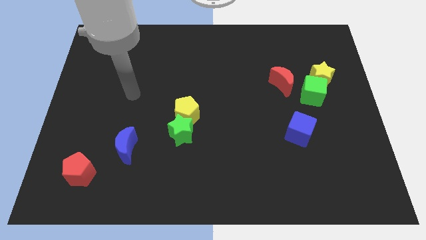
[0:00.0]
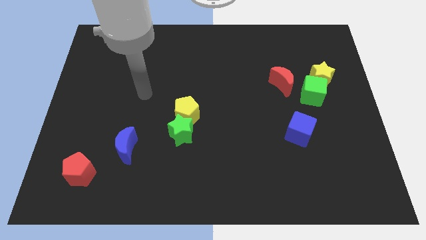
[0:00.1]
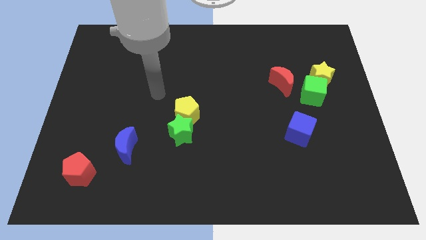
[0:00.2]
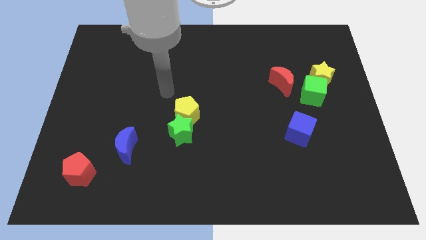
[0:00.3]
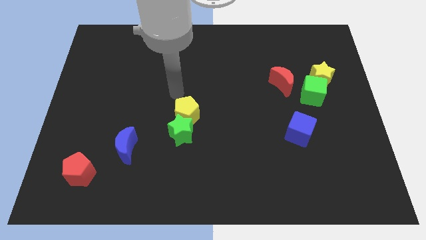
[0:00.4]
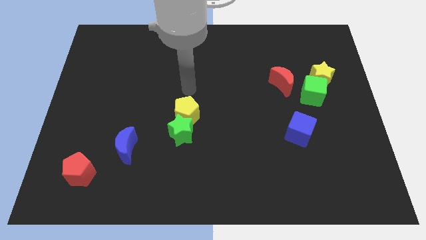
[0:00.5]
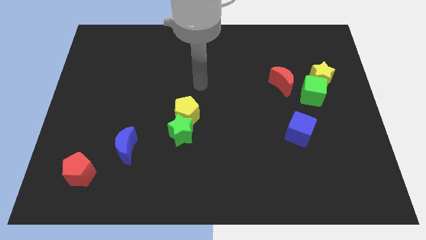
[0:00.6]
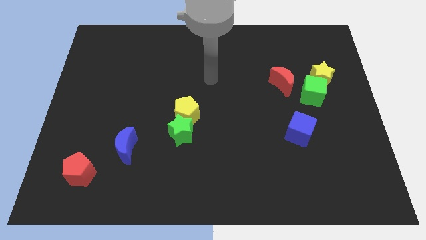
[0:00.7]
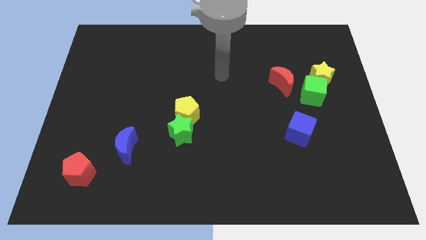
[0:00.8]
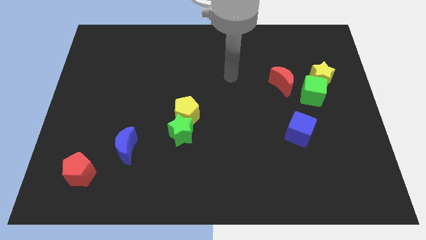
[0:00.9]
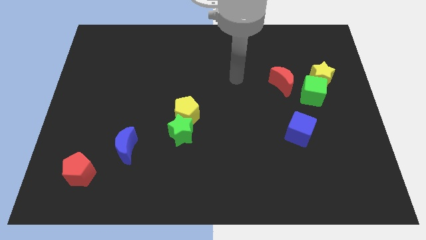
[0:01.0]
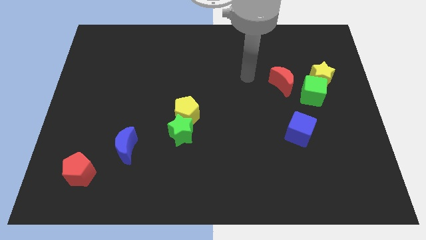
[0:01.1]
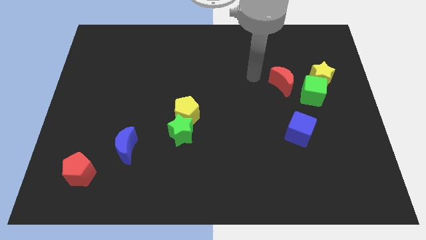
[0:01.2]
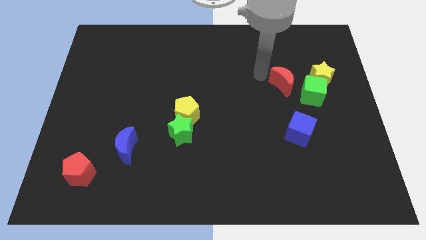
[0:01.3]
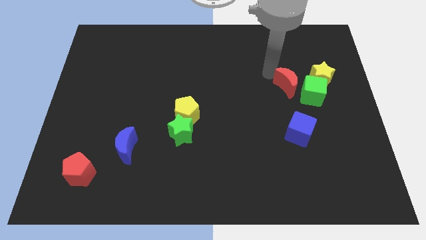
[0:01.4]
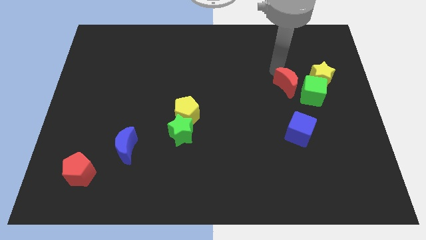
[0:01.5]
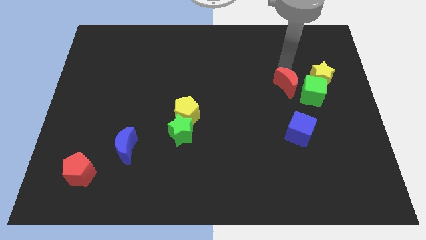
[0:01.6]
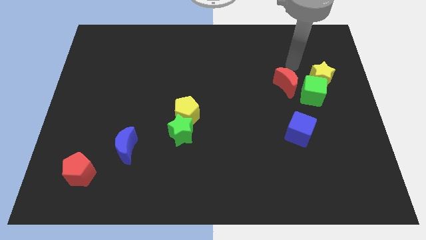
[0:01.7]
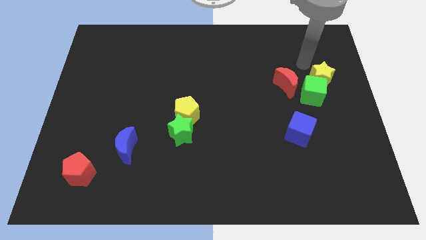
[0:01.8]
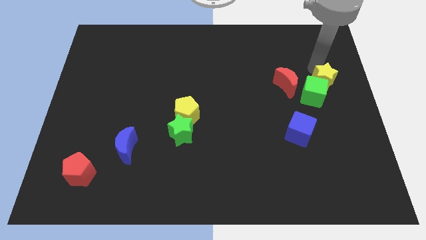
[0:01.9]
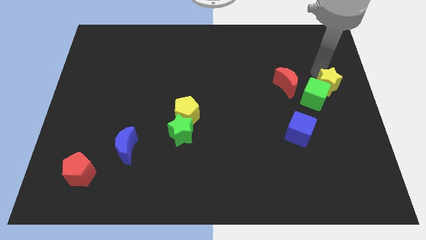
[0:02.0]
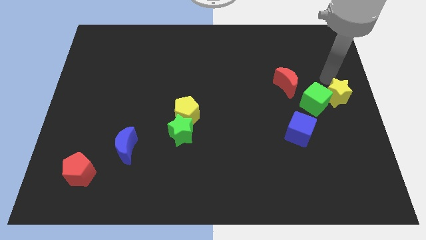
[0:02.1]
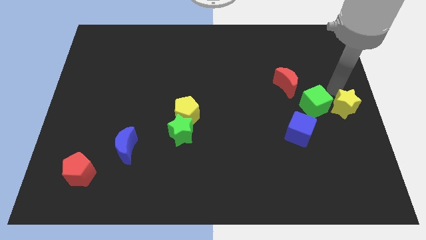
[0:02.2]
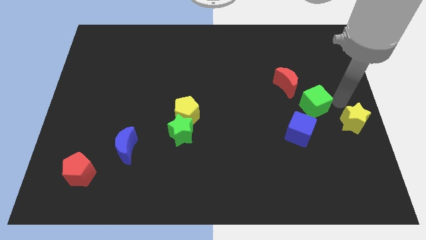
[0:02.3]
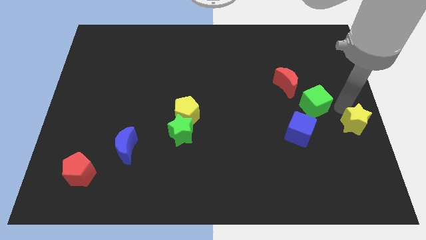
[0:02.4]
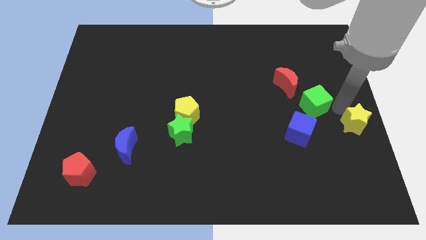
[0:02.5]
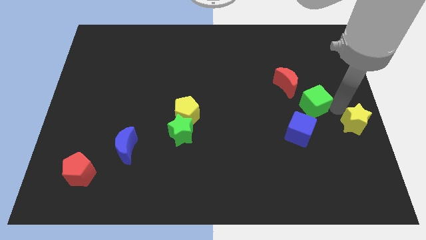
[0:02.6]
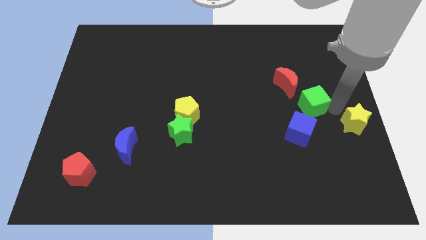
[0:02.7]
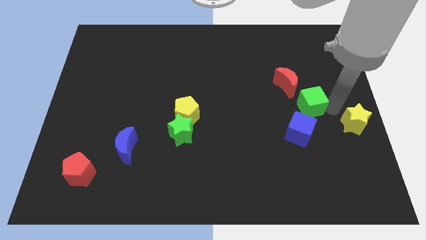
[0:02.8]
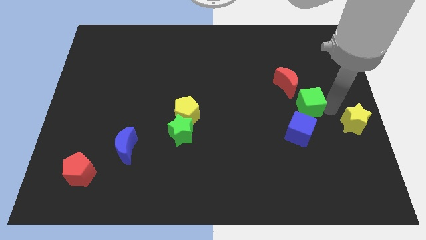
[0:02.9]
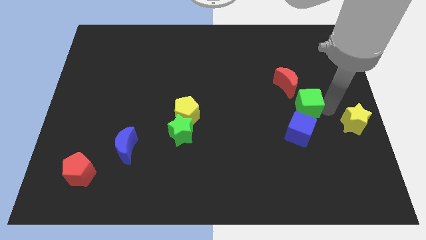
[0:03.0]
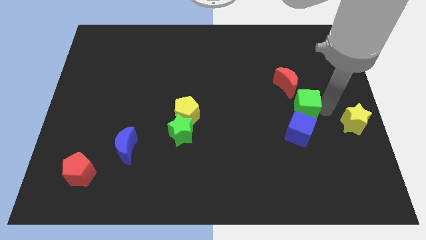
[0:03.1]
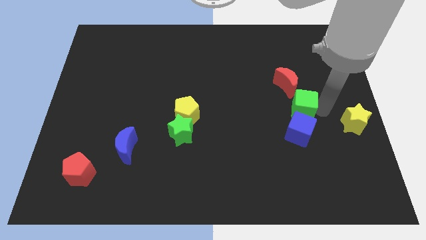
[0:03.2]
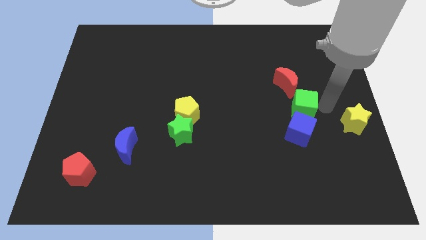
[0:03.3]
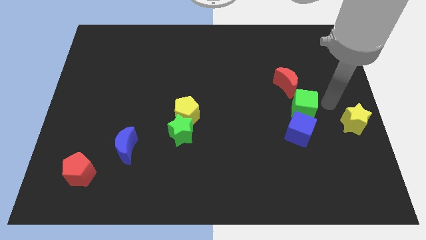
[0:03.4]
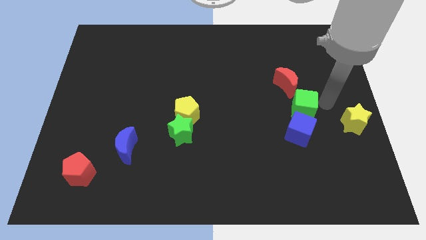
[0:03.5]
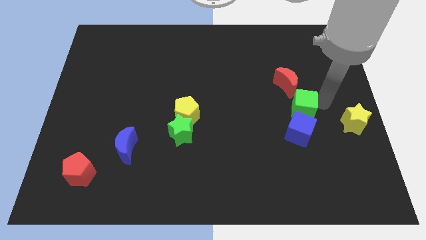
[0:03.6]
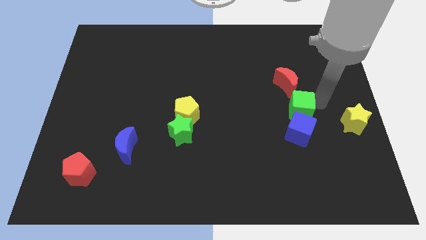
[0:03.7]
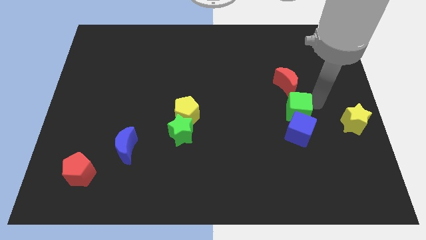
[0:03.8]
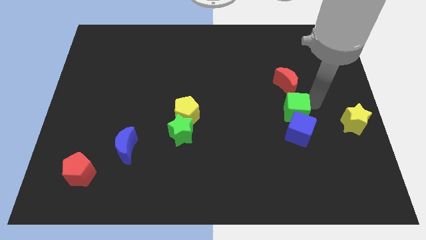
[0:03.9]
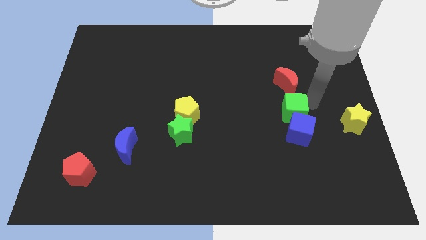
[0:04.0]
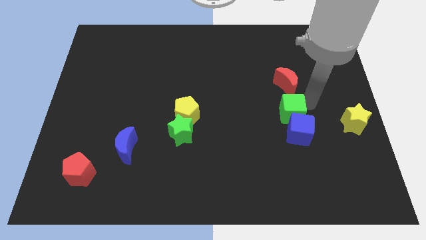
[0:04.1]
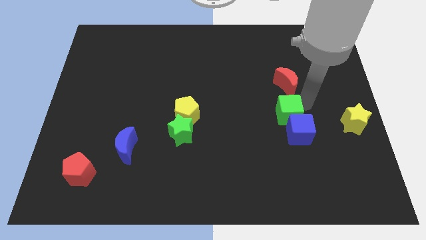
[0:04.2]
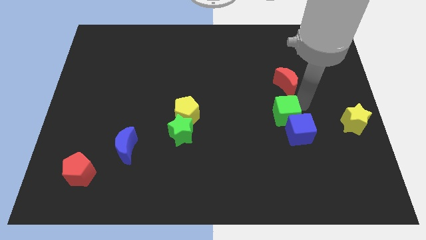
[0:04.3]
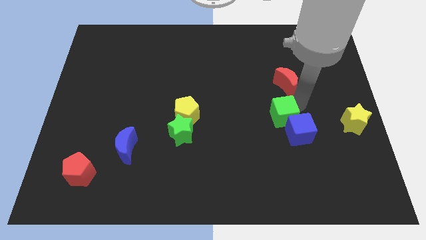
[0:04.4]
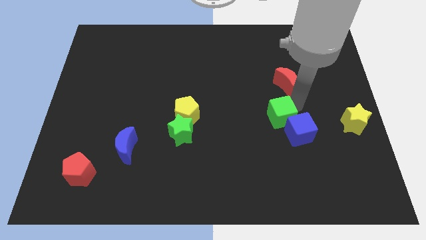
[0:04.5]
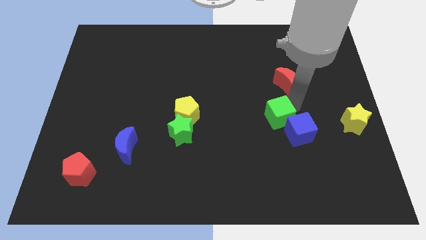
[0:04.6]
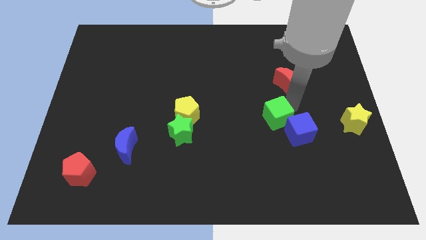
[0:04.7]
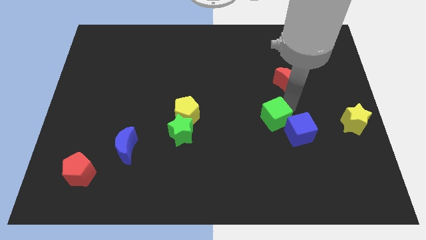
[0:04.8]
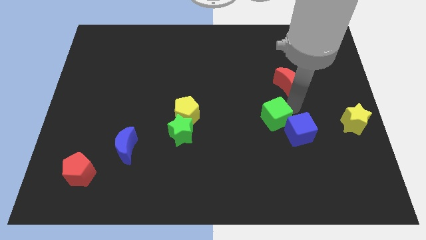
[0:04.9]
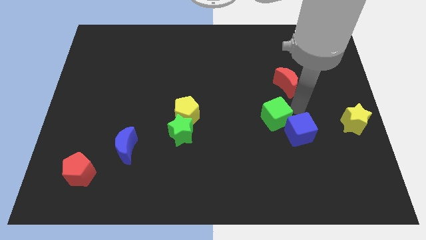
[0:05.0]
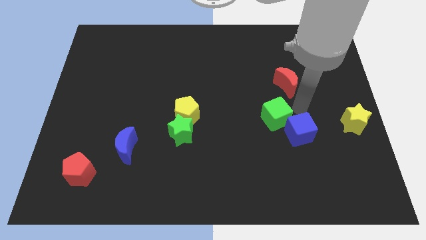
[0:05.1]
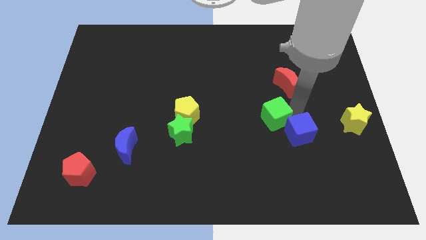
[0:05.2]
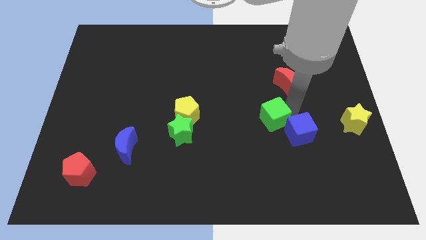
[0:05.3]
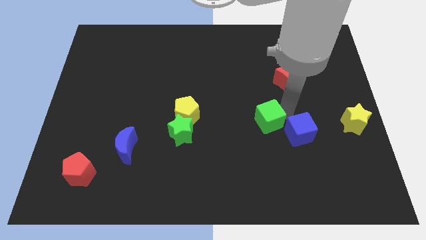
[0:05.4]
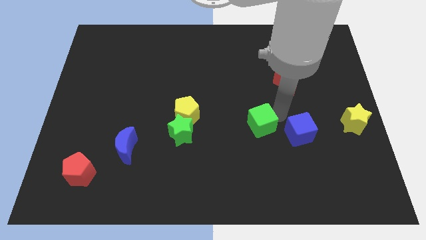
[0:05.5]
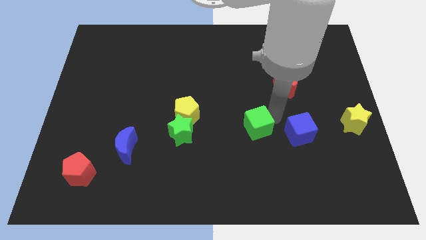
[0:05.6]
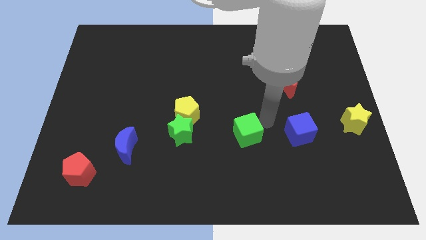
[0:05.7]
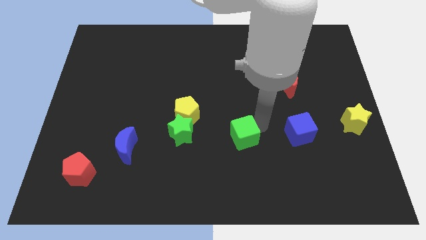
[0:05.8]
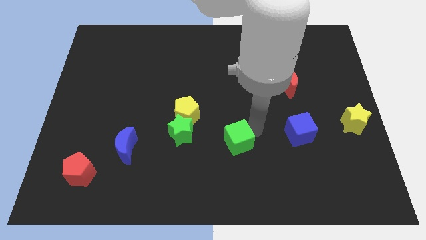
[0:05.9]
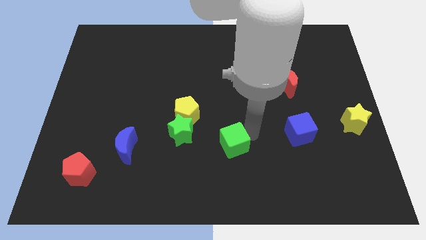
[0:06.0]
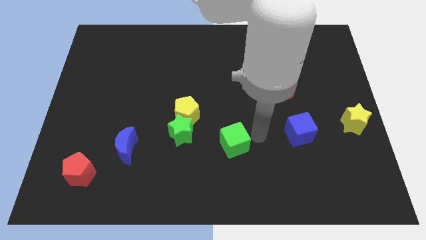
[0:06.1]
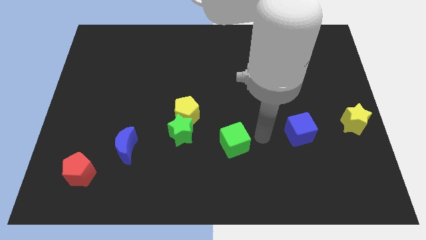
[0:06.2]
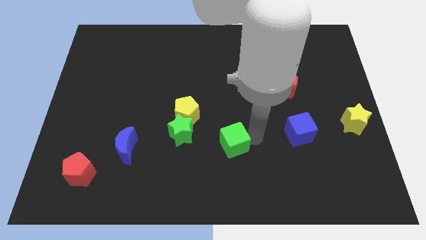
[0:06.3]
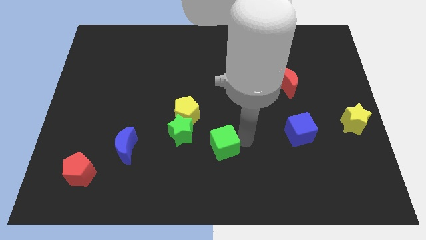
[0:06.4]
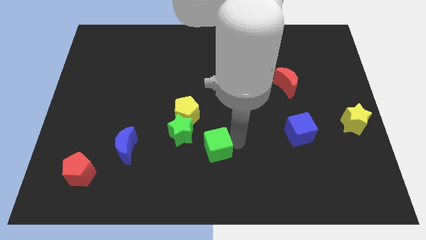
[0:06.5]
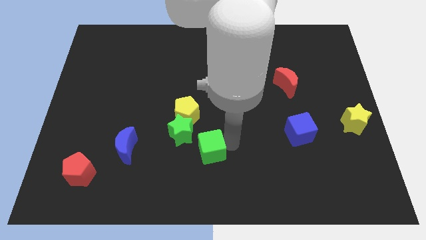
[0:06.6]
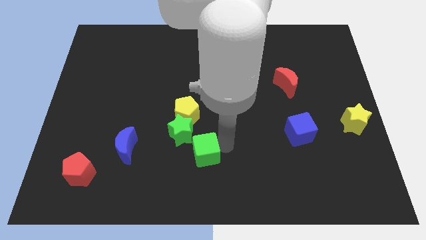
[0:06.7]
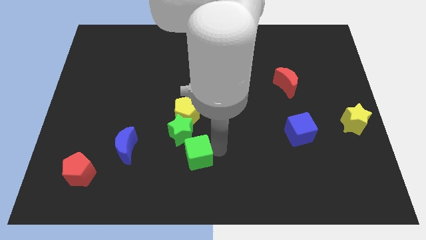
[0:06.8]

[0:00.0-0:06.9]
slide the green cube just right of the blue moon

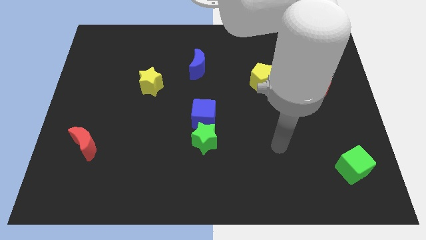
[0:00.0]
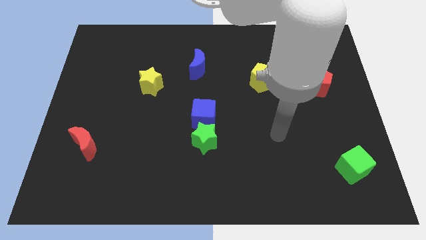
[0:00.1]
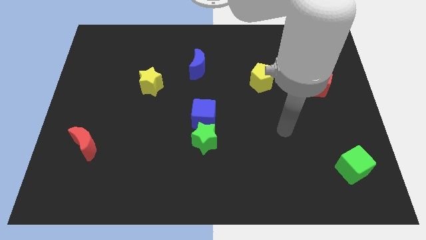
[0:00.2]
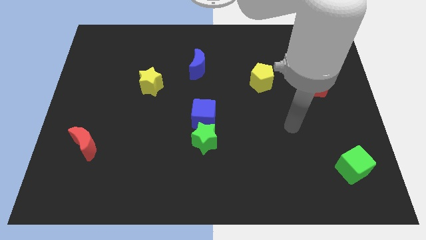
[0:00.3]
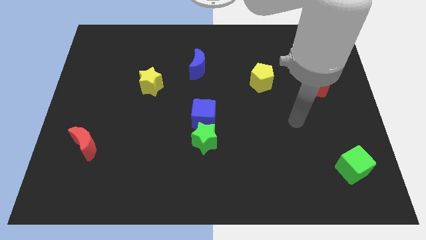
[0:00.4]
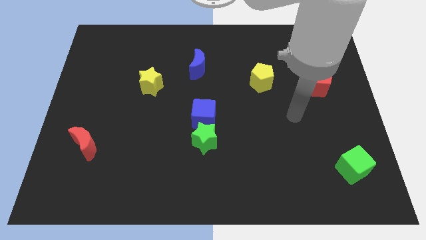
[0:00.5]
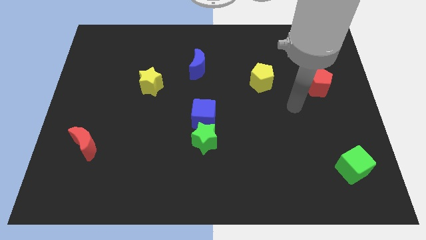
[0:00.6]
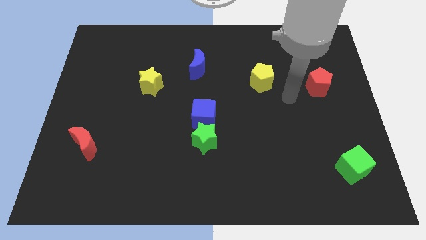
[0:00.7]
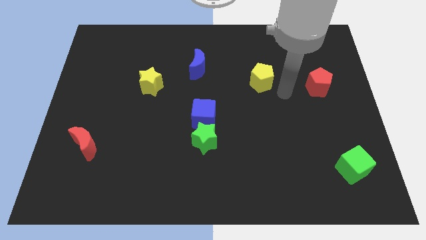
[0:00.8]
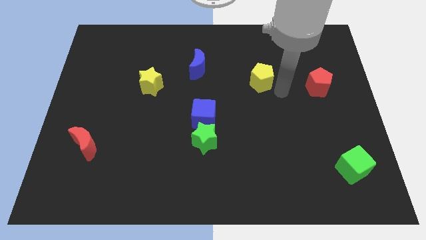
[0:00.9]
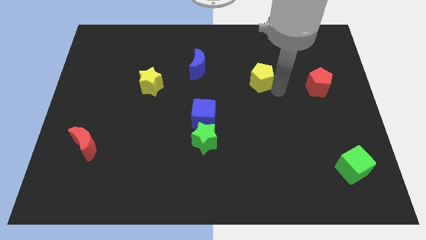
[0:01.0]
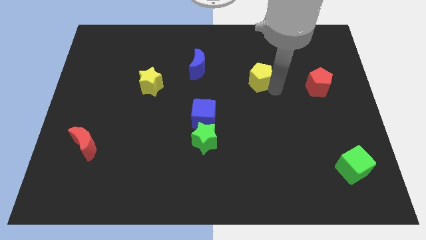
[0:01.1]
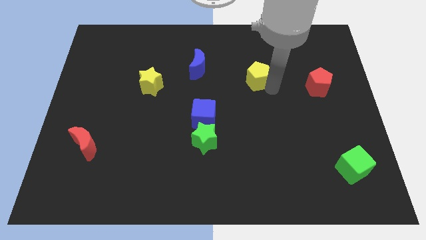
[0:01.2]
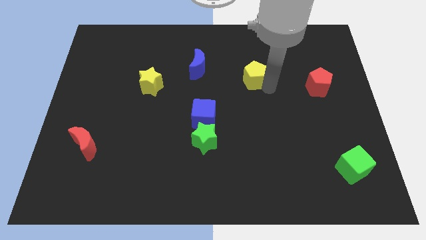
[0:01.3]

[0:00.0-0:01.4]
slide the yellow pentagon to the right side of the blue moon
